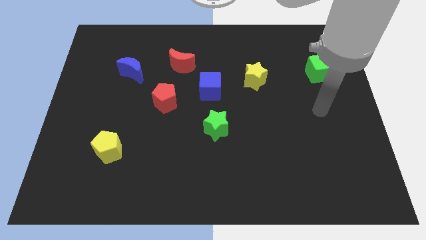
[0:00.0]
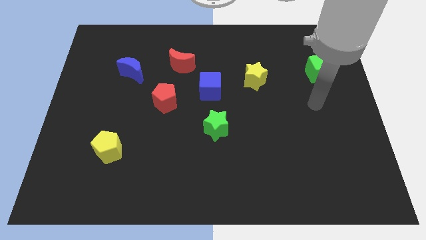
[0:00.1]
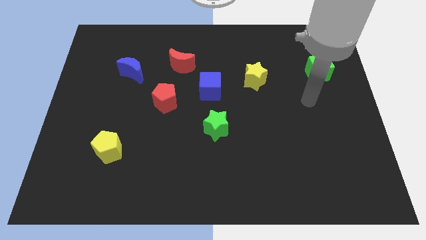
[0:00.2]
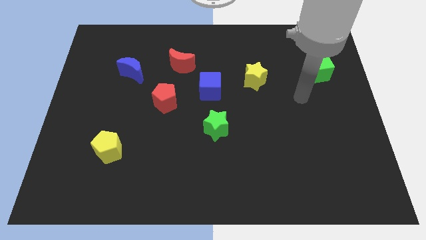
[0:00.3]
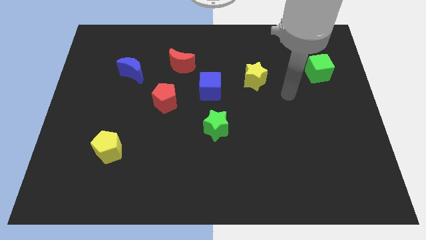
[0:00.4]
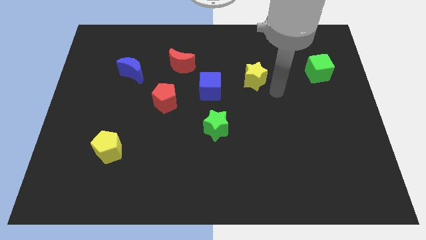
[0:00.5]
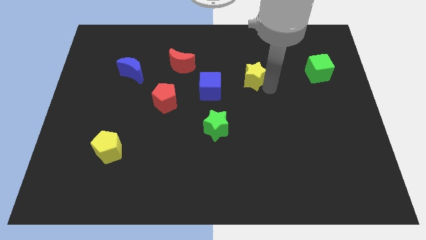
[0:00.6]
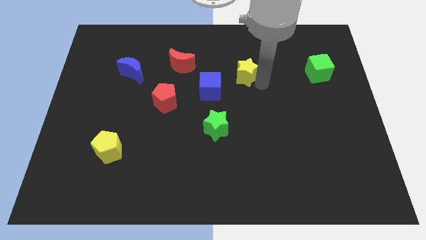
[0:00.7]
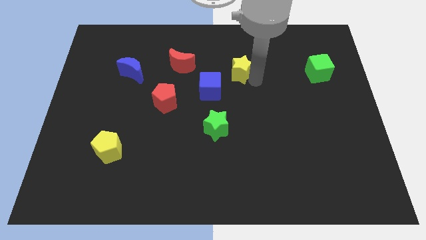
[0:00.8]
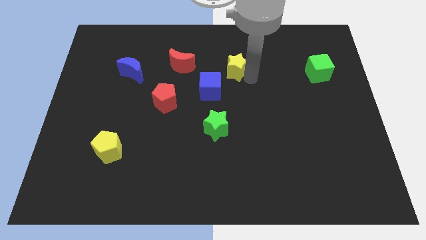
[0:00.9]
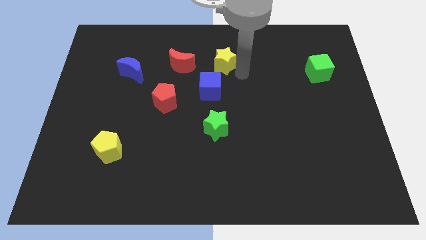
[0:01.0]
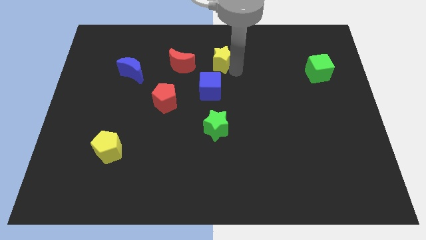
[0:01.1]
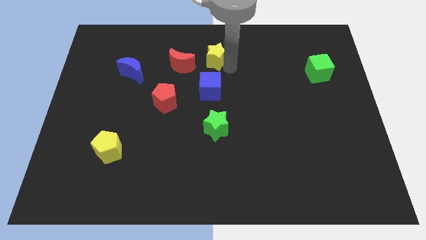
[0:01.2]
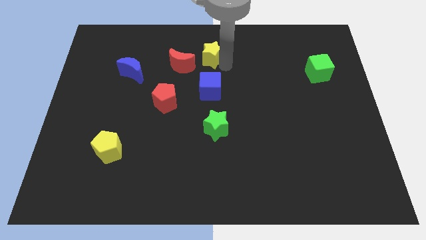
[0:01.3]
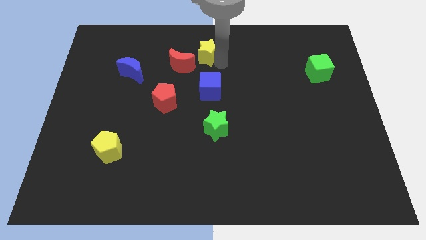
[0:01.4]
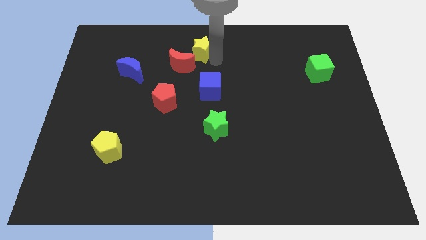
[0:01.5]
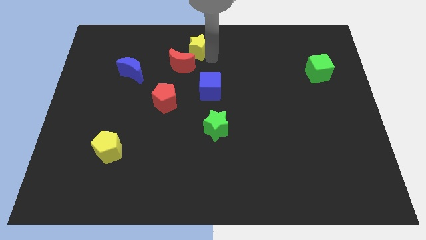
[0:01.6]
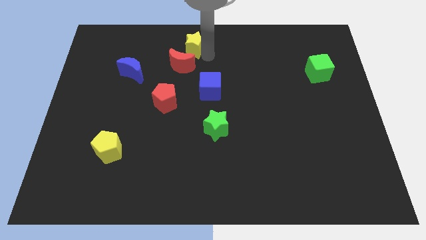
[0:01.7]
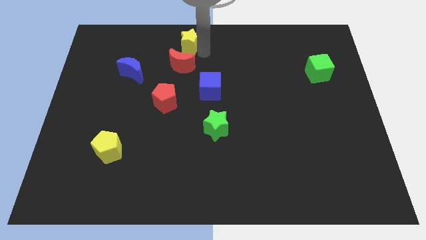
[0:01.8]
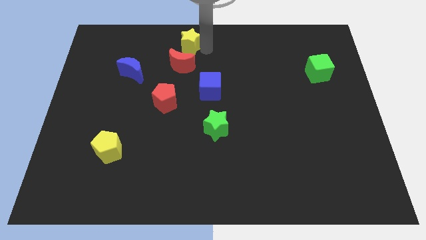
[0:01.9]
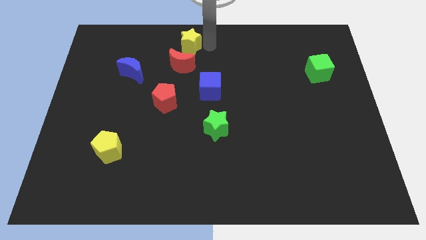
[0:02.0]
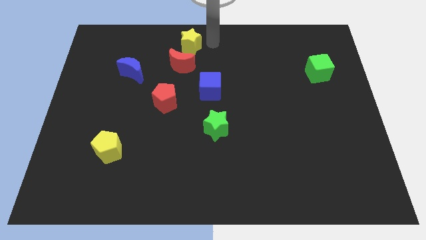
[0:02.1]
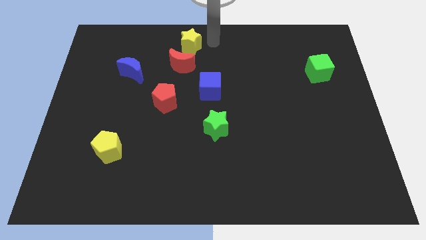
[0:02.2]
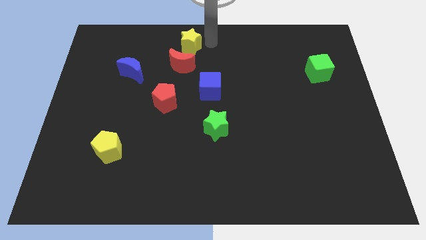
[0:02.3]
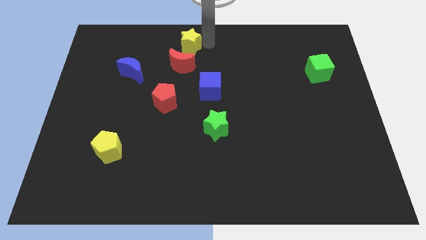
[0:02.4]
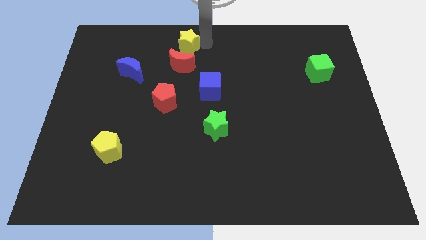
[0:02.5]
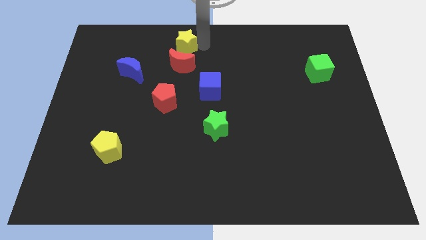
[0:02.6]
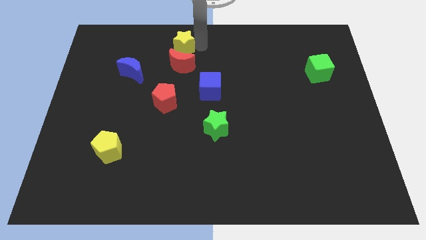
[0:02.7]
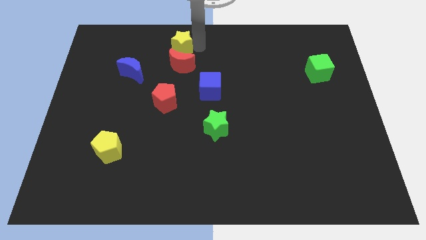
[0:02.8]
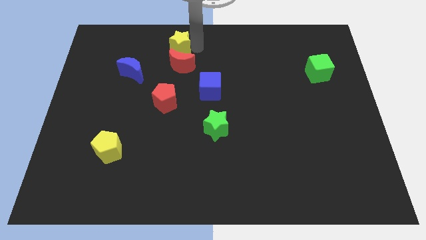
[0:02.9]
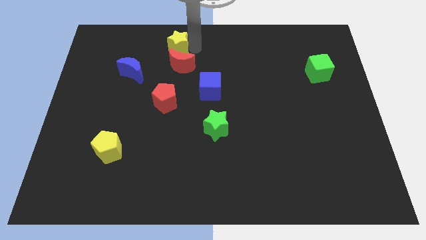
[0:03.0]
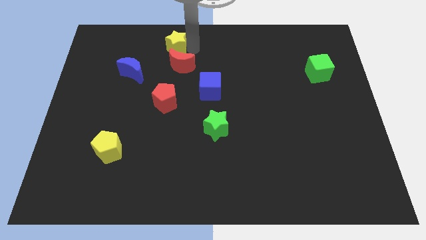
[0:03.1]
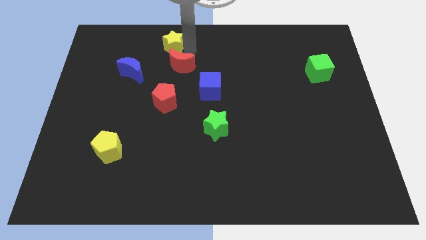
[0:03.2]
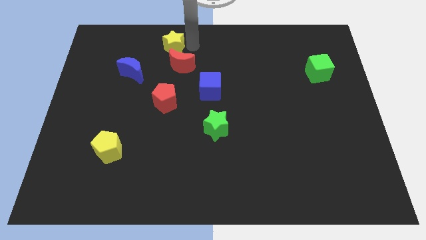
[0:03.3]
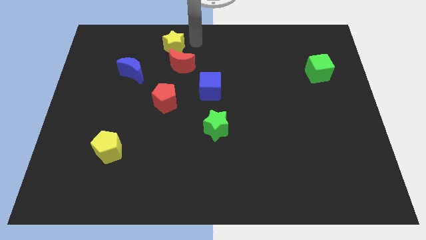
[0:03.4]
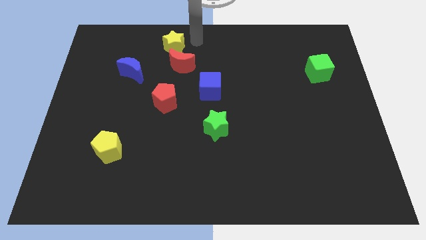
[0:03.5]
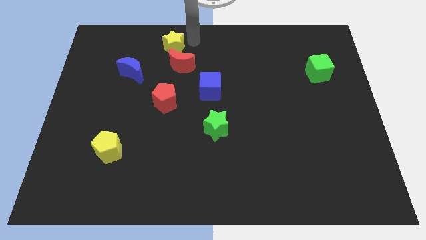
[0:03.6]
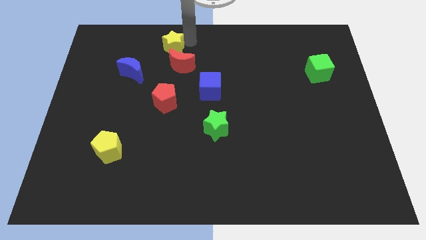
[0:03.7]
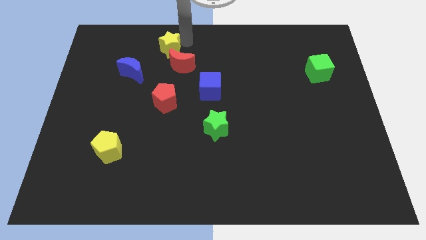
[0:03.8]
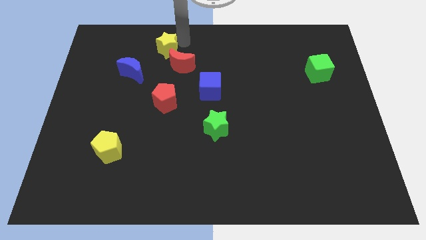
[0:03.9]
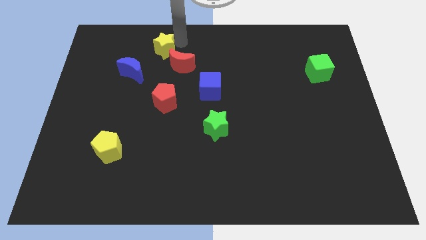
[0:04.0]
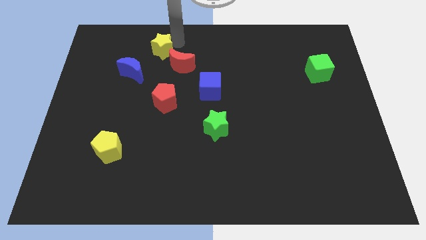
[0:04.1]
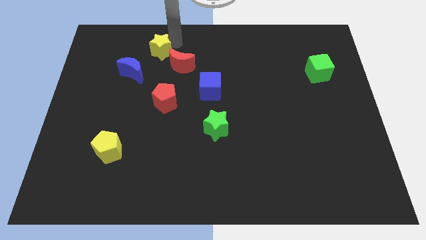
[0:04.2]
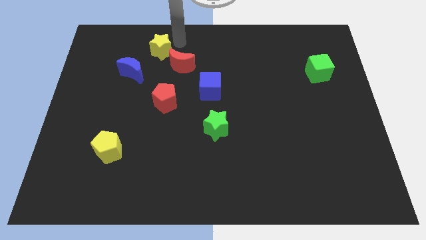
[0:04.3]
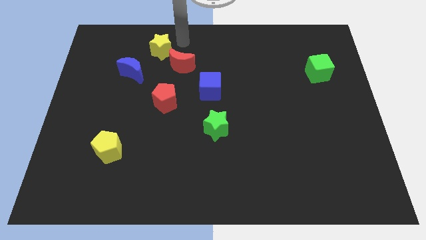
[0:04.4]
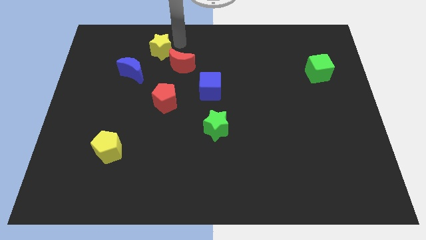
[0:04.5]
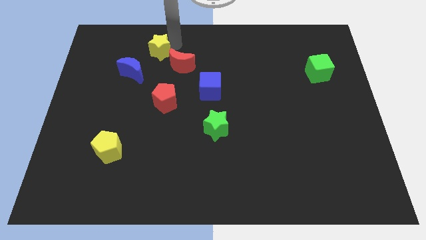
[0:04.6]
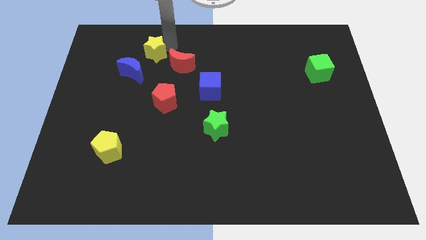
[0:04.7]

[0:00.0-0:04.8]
slide the yellow star just left of the red moon

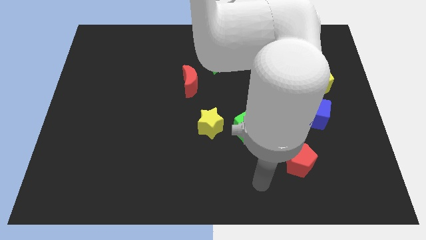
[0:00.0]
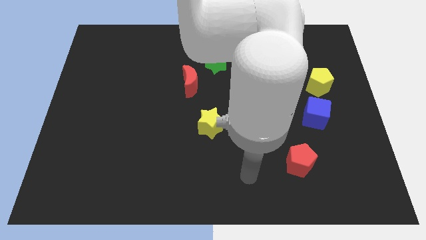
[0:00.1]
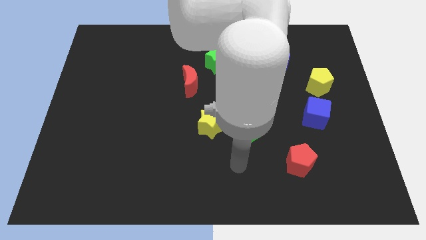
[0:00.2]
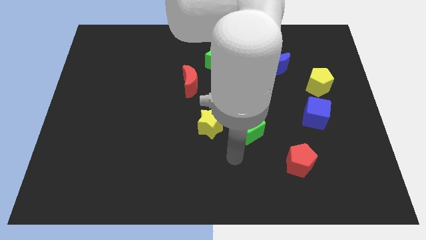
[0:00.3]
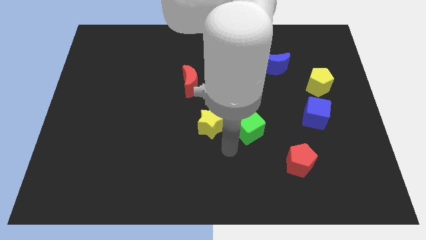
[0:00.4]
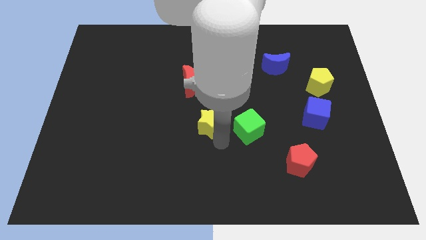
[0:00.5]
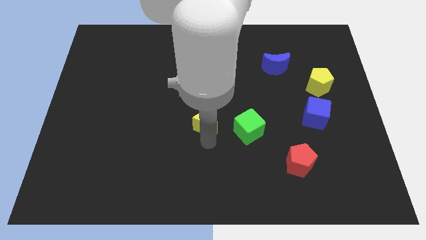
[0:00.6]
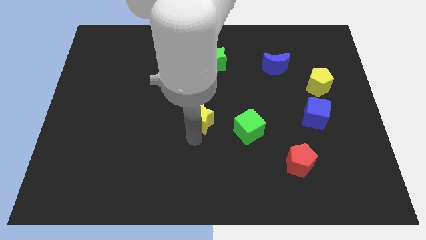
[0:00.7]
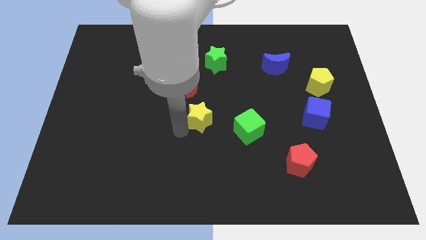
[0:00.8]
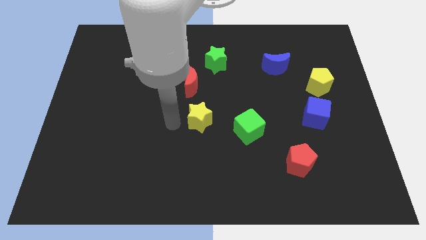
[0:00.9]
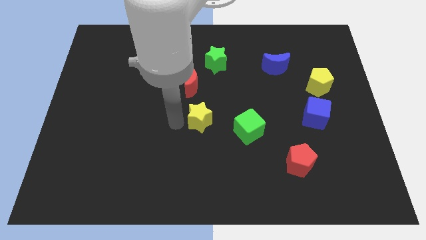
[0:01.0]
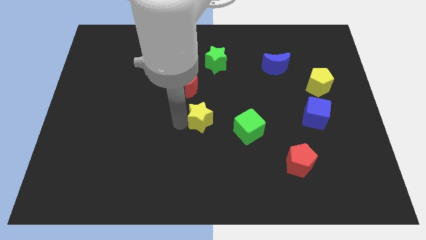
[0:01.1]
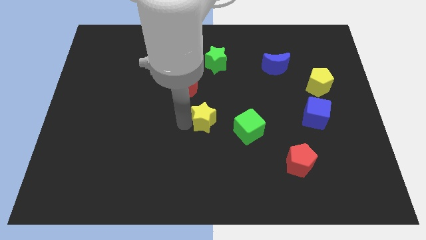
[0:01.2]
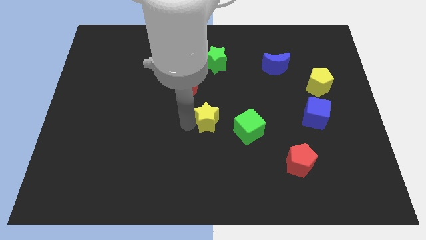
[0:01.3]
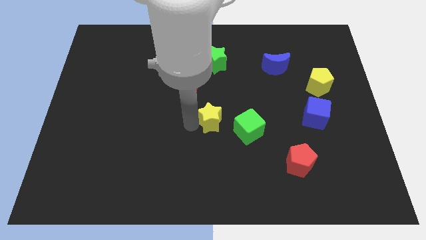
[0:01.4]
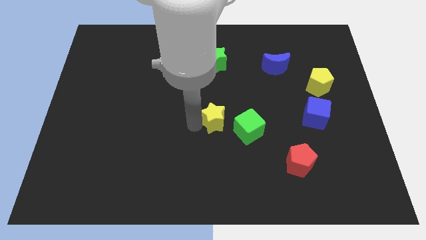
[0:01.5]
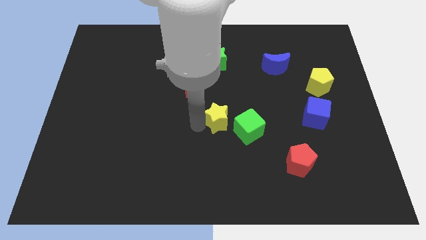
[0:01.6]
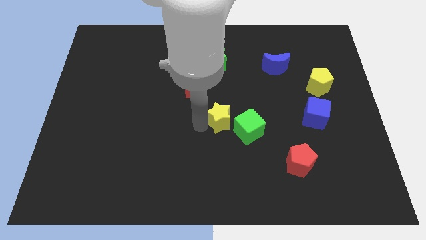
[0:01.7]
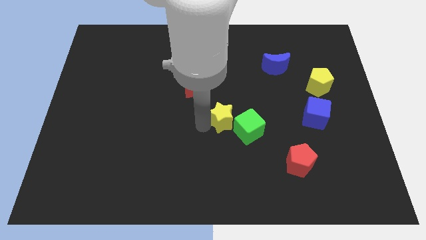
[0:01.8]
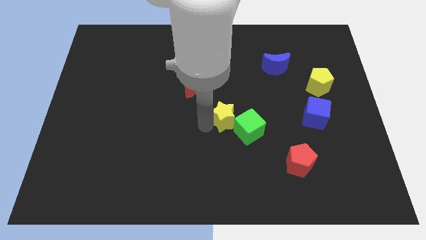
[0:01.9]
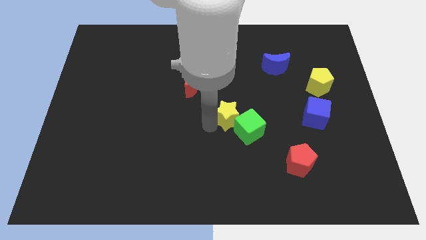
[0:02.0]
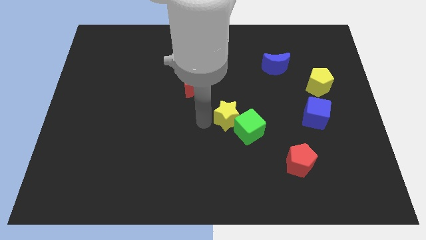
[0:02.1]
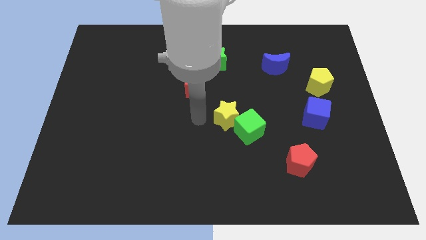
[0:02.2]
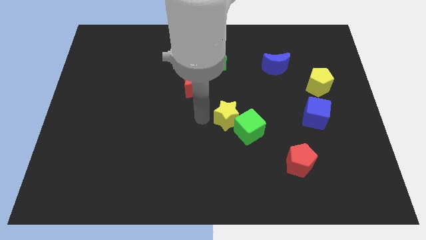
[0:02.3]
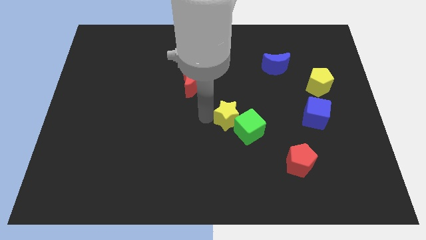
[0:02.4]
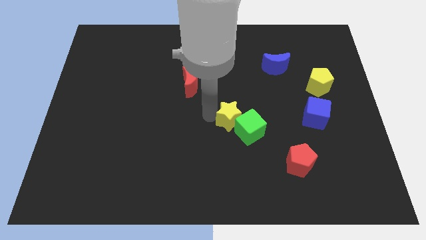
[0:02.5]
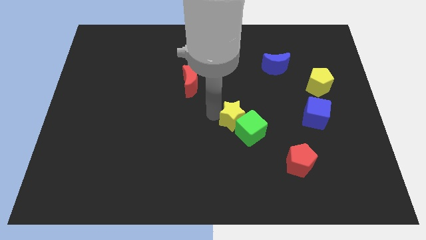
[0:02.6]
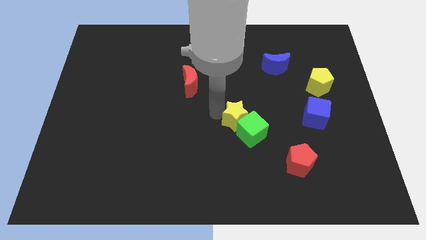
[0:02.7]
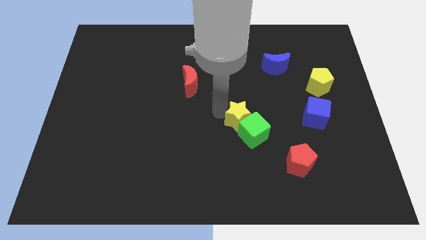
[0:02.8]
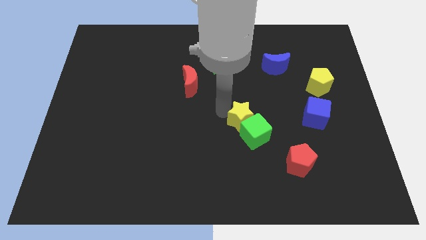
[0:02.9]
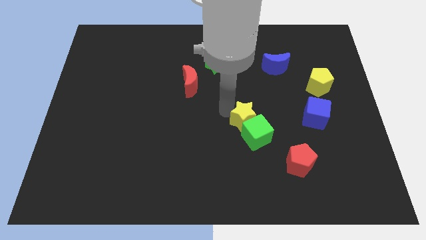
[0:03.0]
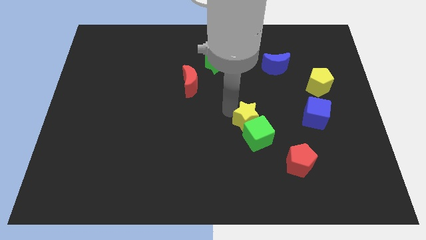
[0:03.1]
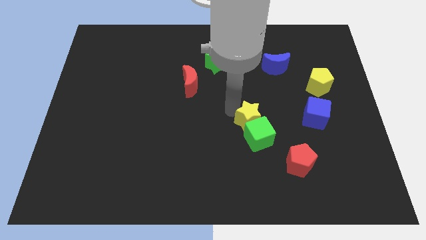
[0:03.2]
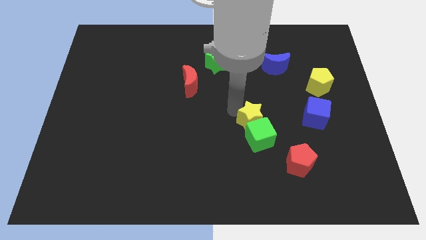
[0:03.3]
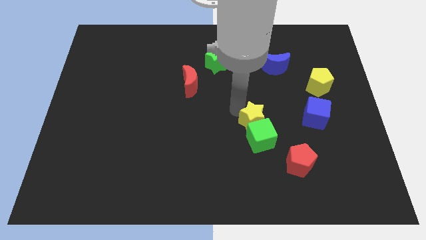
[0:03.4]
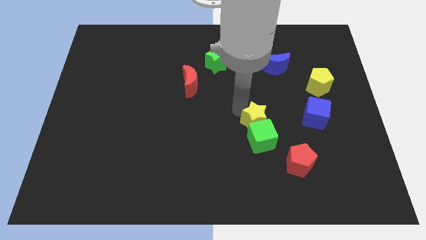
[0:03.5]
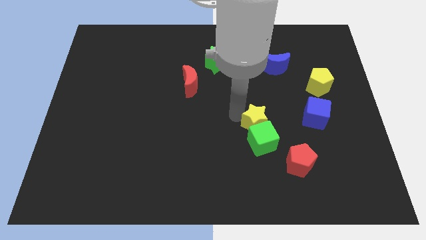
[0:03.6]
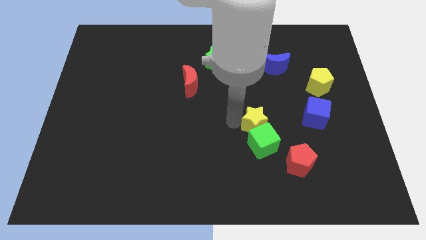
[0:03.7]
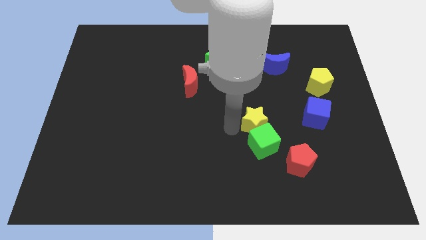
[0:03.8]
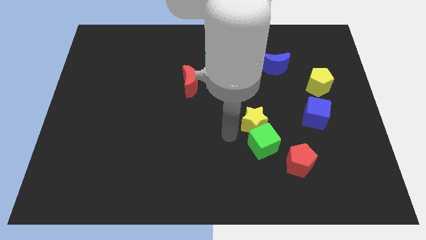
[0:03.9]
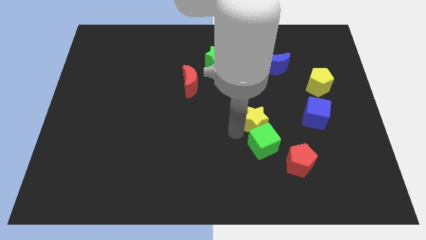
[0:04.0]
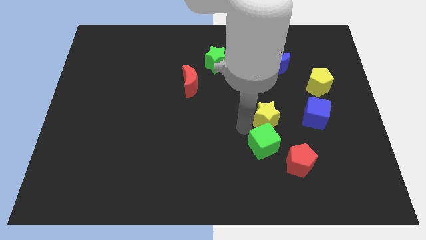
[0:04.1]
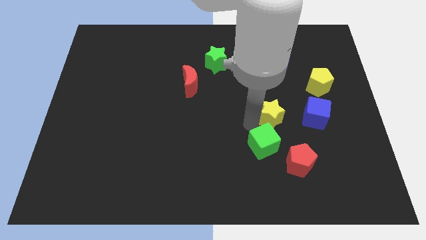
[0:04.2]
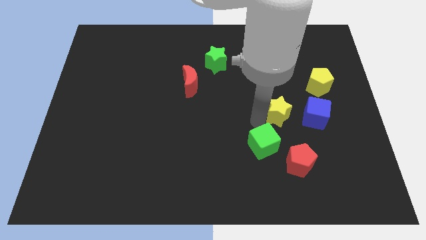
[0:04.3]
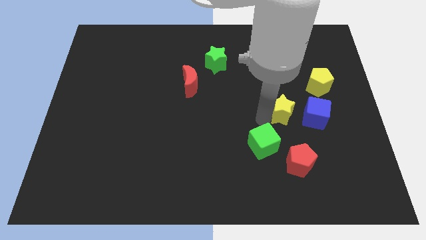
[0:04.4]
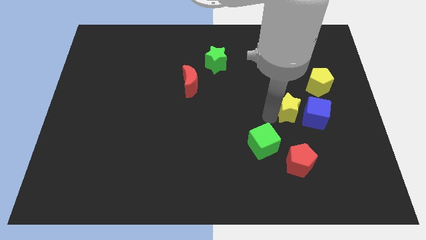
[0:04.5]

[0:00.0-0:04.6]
push the yellow star to the bottom left side of the yellow pentagon
